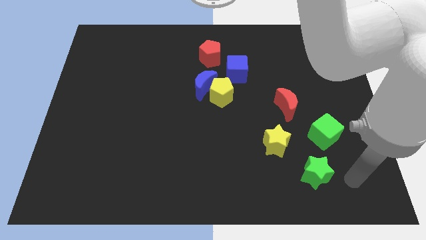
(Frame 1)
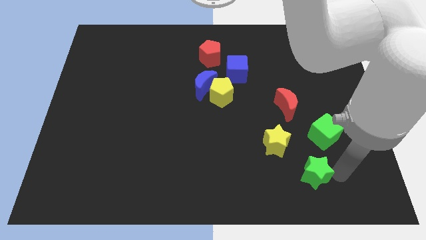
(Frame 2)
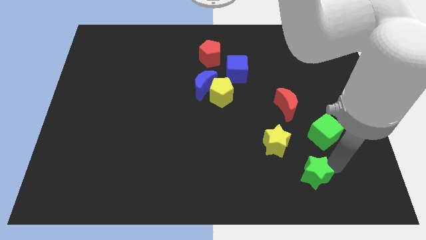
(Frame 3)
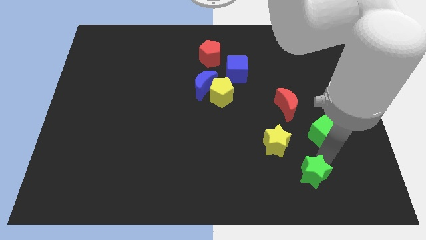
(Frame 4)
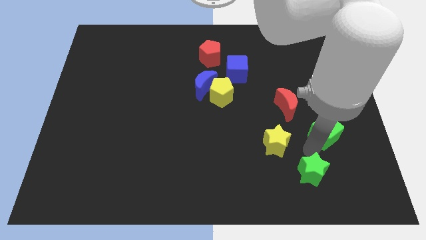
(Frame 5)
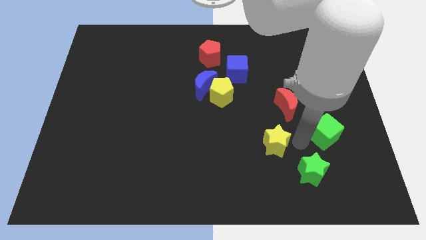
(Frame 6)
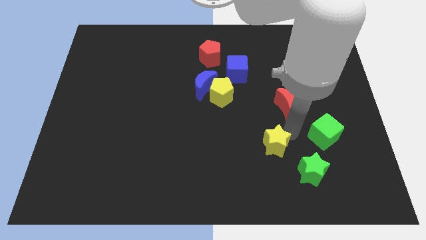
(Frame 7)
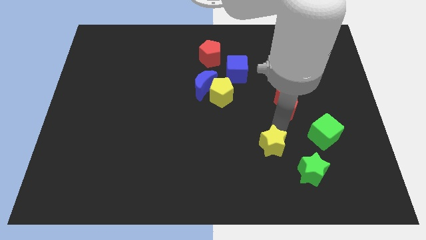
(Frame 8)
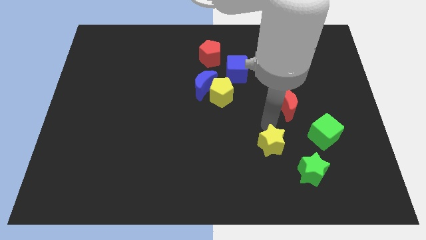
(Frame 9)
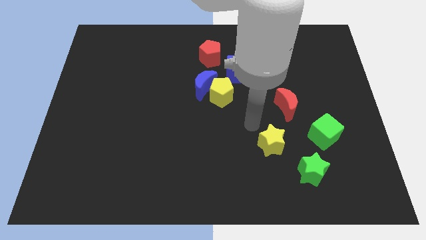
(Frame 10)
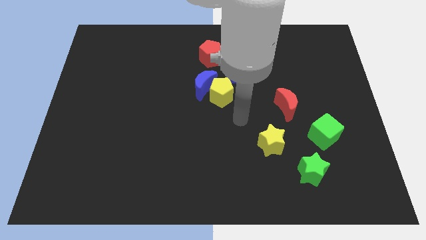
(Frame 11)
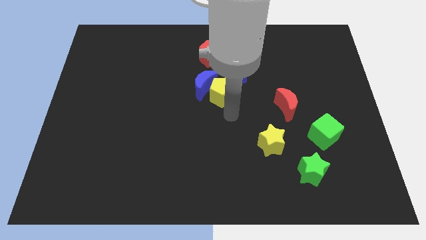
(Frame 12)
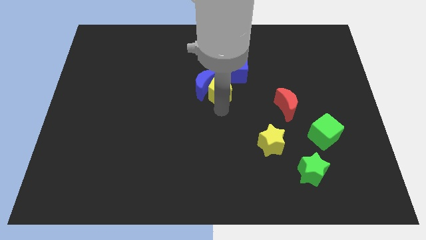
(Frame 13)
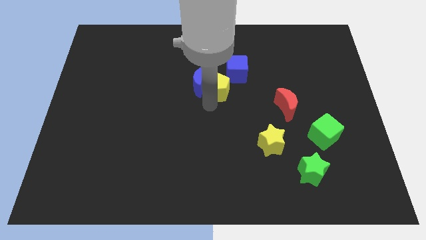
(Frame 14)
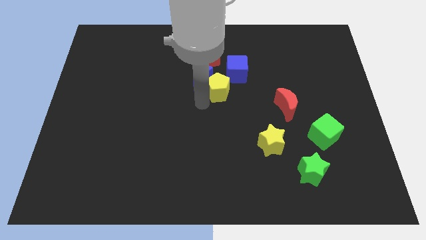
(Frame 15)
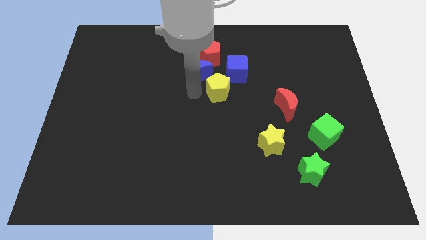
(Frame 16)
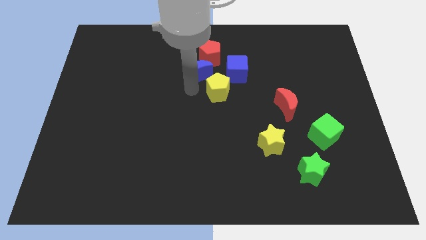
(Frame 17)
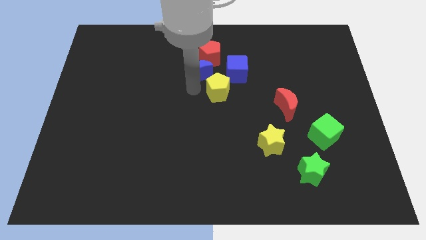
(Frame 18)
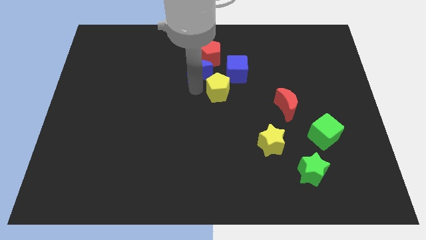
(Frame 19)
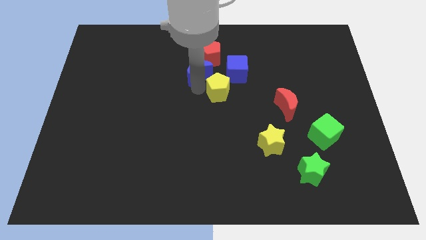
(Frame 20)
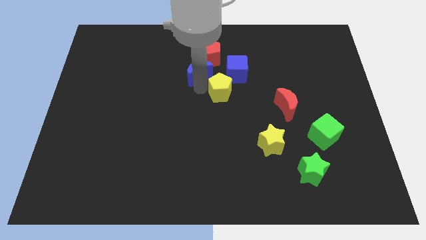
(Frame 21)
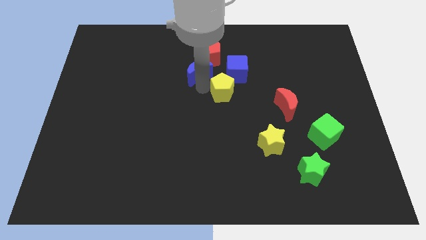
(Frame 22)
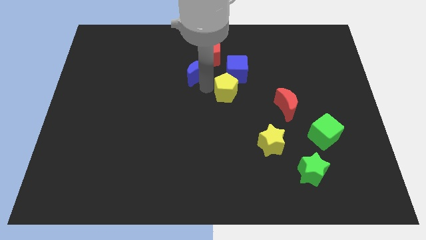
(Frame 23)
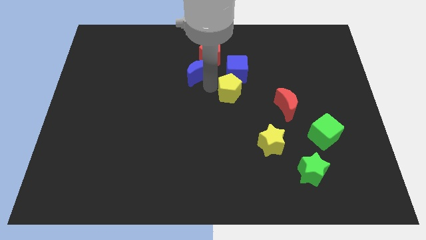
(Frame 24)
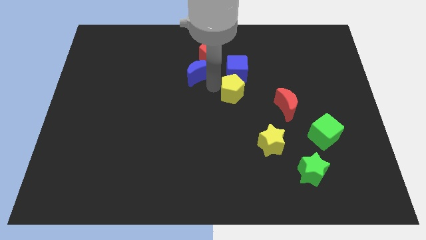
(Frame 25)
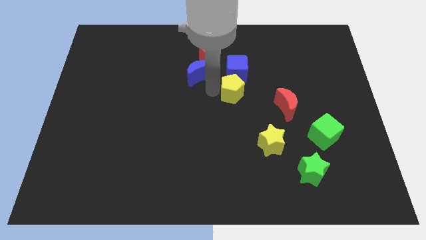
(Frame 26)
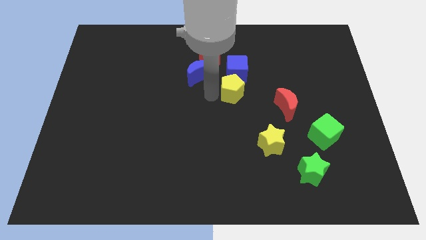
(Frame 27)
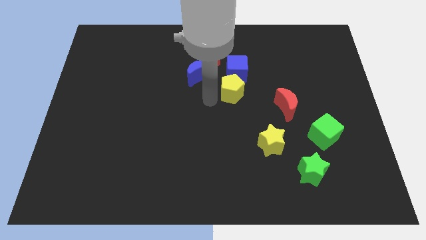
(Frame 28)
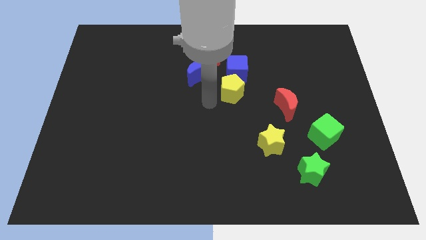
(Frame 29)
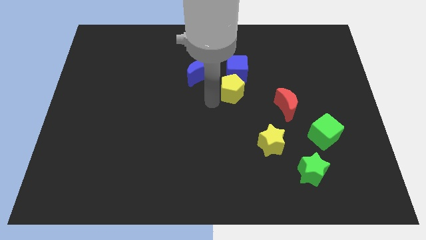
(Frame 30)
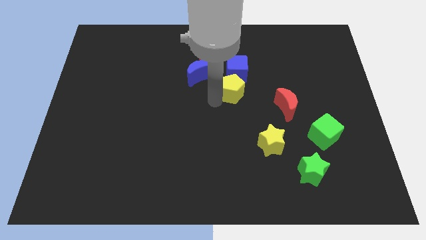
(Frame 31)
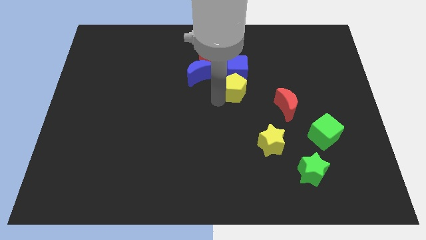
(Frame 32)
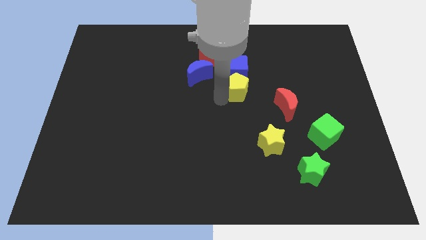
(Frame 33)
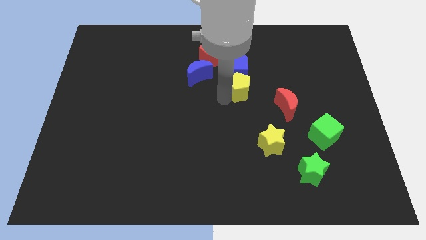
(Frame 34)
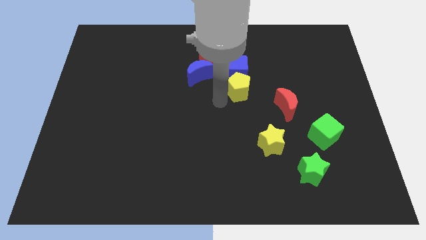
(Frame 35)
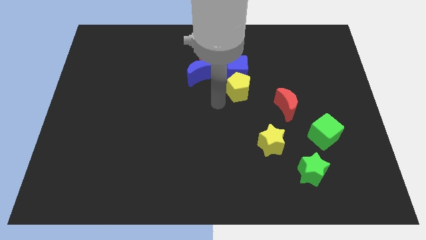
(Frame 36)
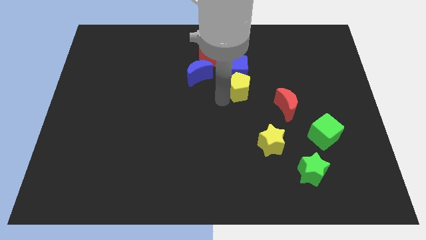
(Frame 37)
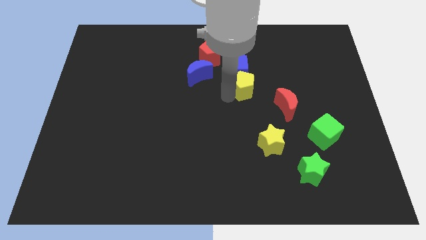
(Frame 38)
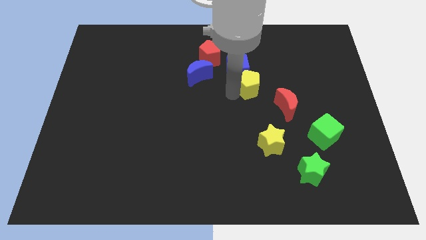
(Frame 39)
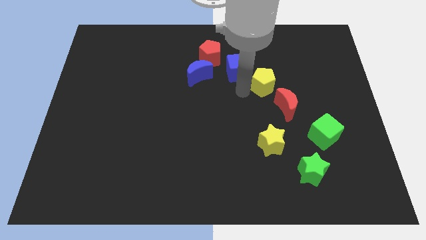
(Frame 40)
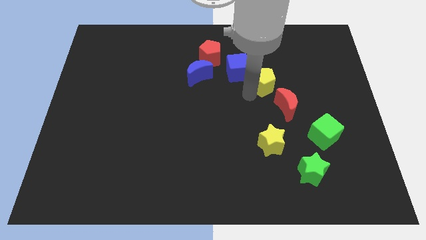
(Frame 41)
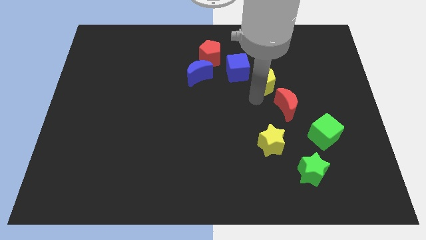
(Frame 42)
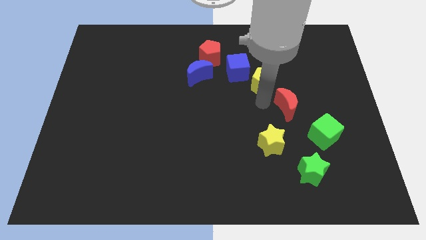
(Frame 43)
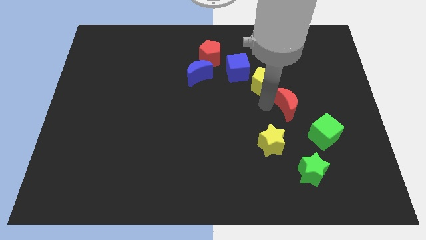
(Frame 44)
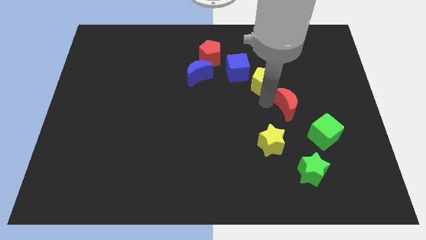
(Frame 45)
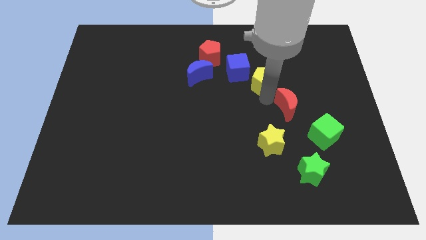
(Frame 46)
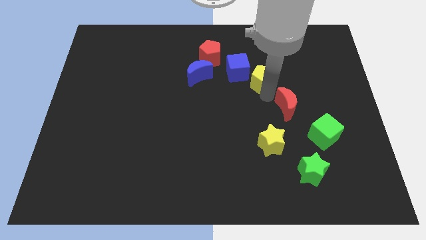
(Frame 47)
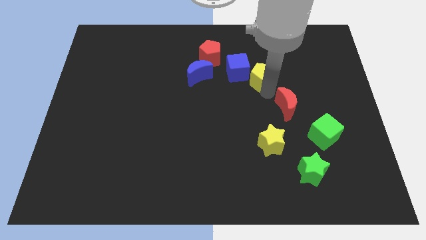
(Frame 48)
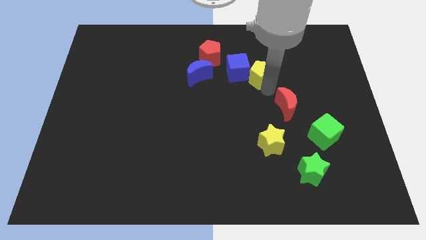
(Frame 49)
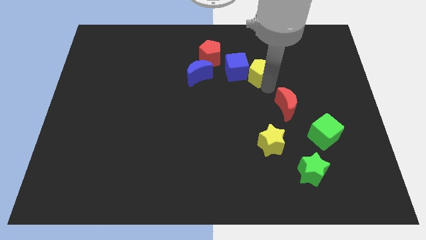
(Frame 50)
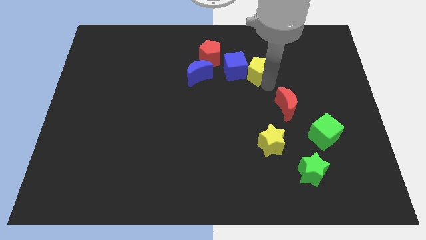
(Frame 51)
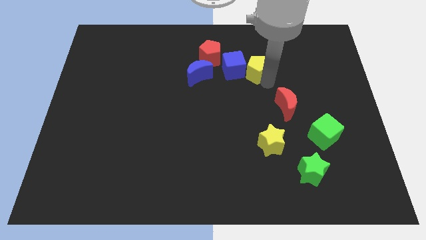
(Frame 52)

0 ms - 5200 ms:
push the yellow pentagon to the top right side of the blue cube

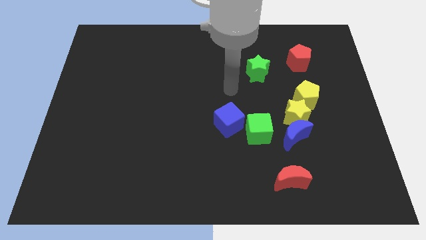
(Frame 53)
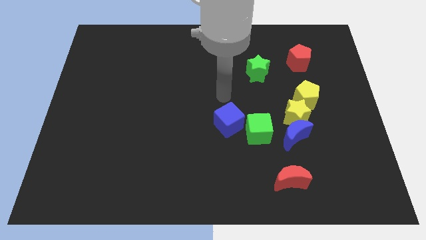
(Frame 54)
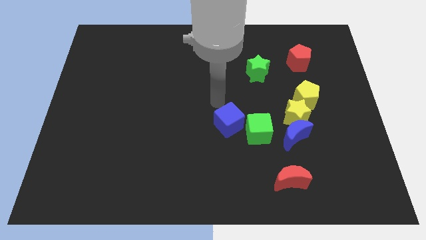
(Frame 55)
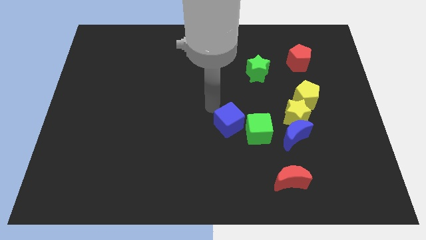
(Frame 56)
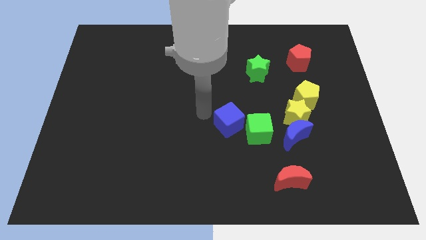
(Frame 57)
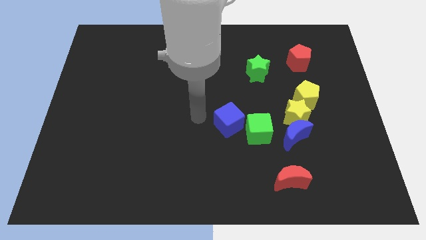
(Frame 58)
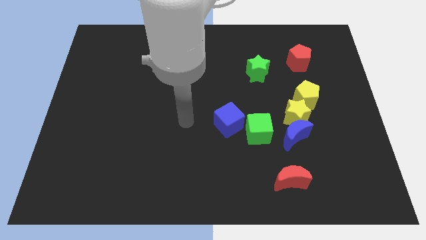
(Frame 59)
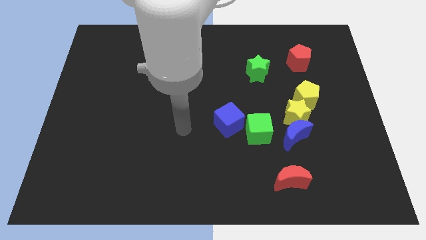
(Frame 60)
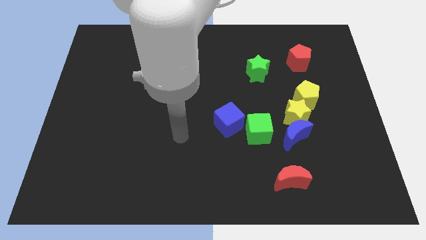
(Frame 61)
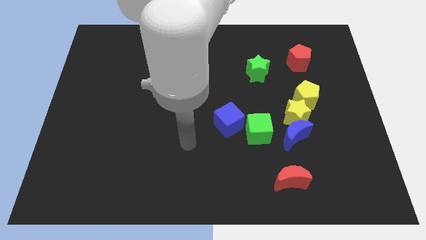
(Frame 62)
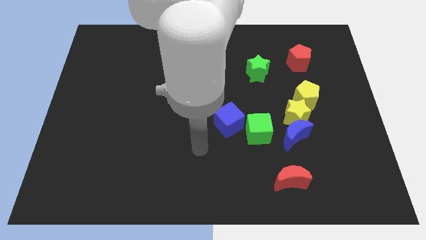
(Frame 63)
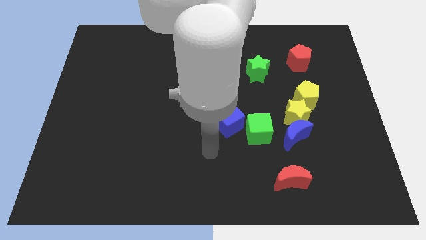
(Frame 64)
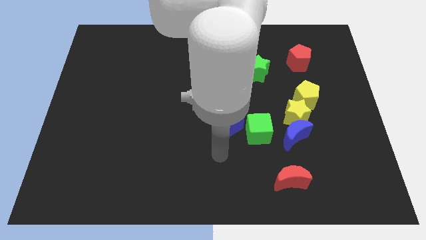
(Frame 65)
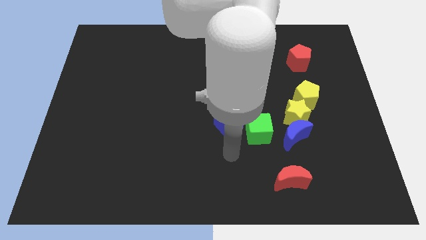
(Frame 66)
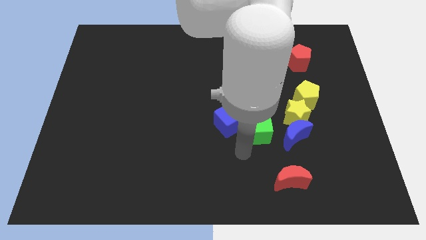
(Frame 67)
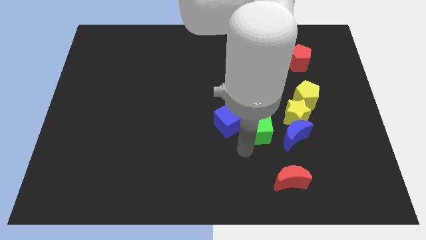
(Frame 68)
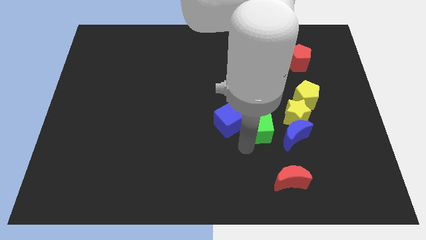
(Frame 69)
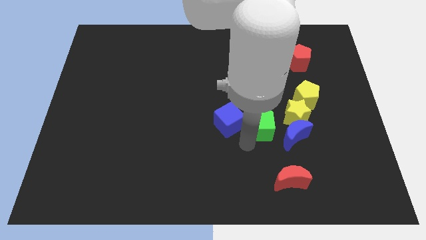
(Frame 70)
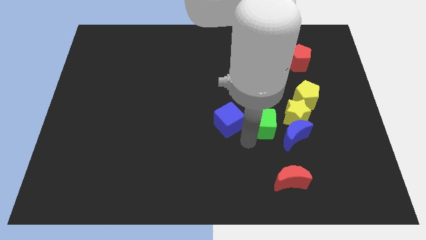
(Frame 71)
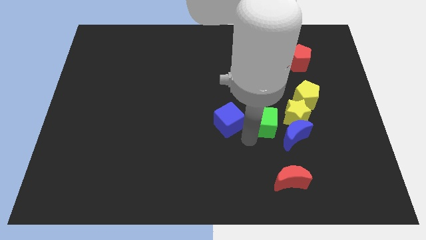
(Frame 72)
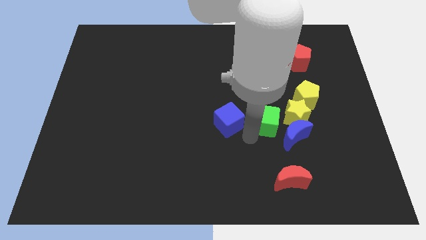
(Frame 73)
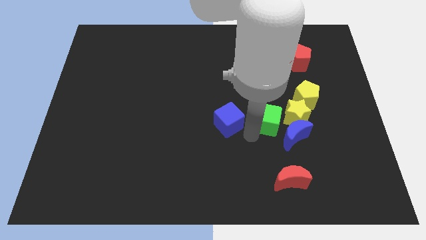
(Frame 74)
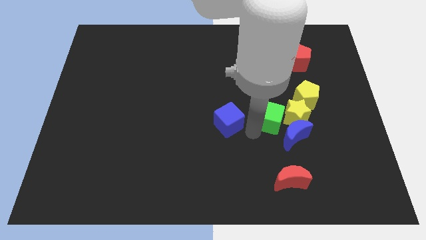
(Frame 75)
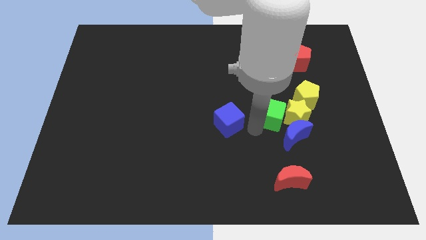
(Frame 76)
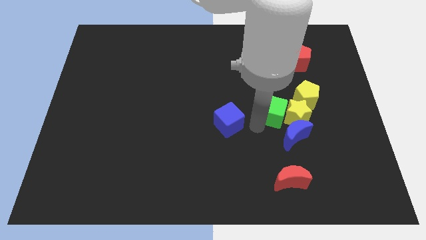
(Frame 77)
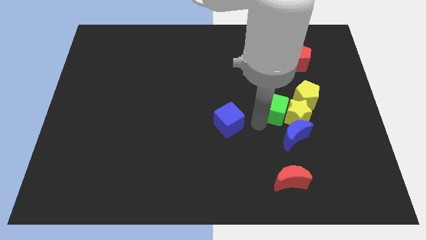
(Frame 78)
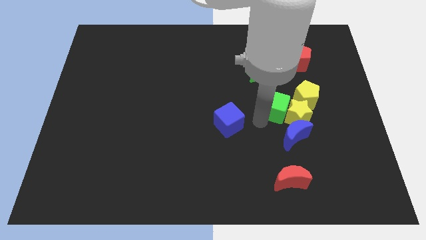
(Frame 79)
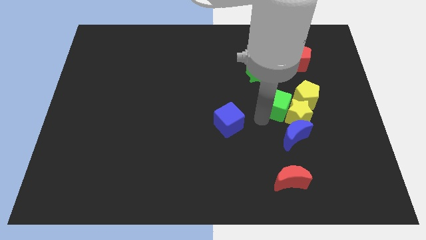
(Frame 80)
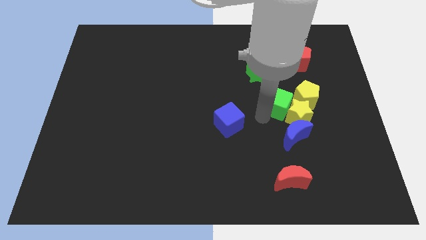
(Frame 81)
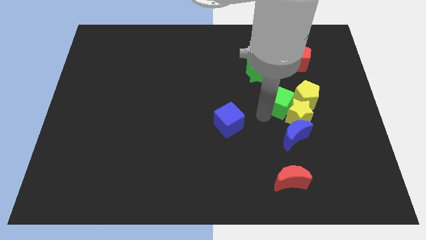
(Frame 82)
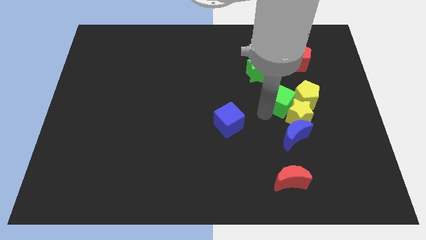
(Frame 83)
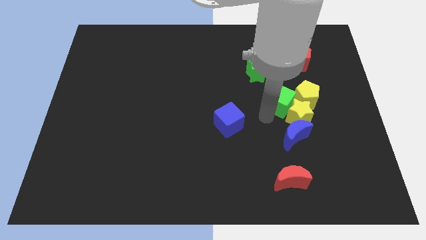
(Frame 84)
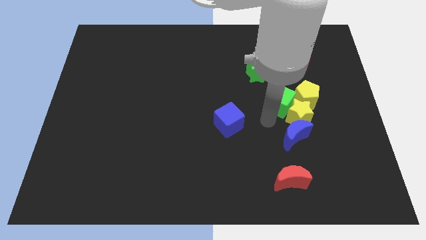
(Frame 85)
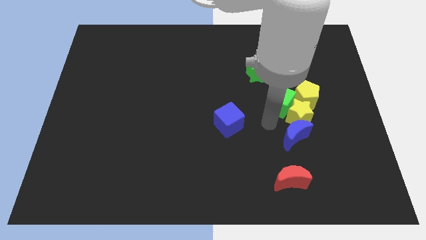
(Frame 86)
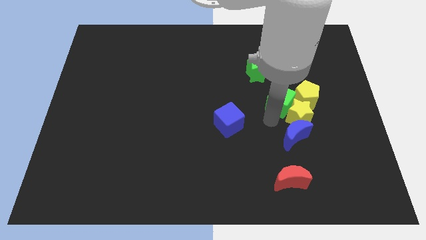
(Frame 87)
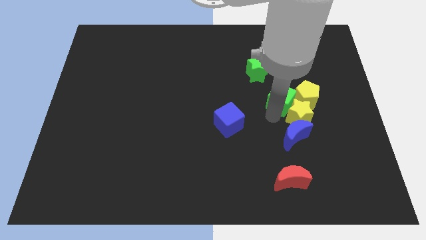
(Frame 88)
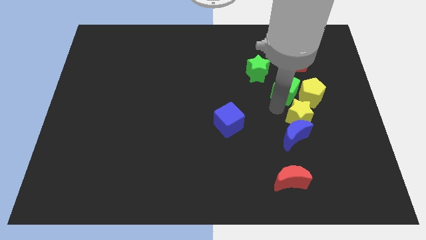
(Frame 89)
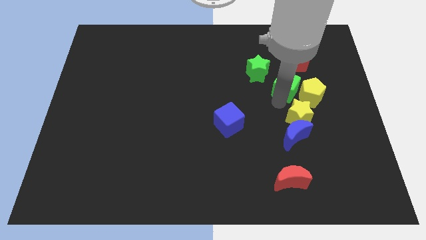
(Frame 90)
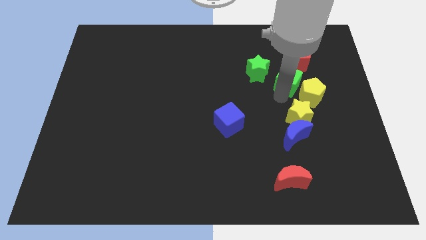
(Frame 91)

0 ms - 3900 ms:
push the green cube to the right side of the green star
